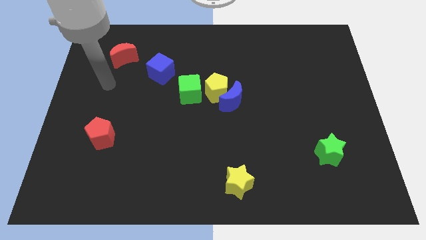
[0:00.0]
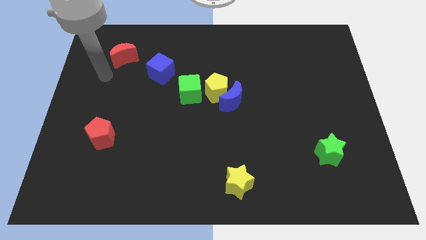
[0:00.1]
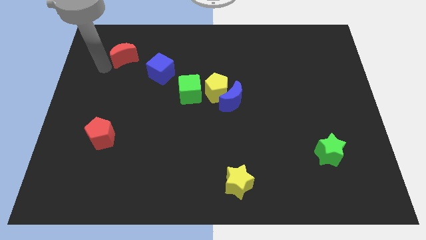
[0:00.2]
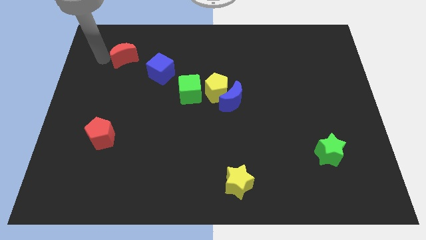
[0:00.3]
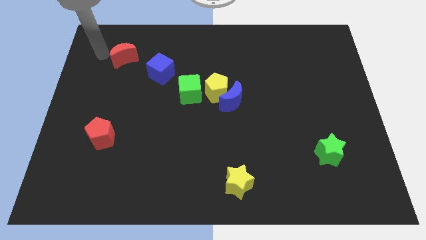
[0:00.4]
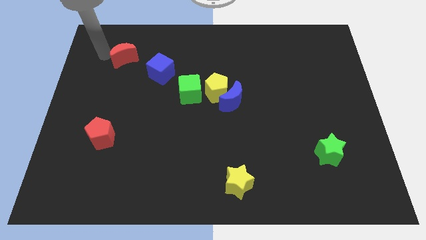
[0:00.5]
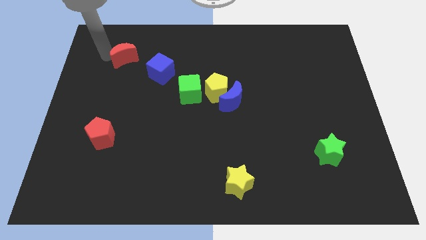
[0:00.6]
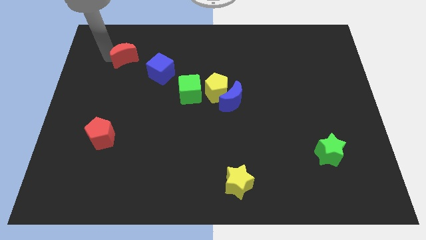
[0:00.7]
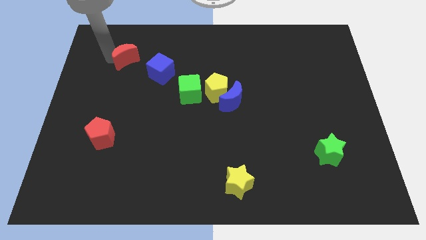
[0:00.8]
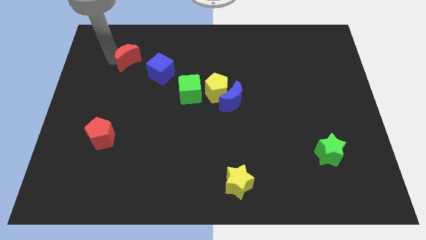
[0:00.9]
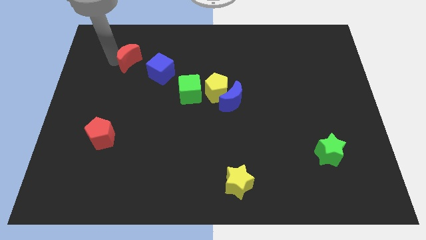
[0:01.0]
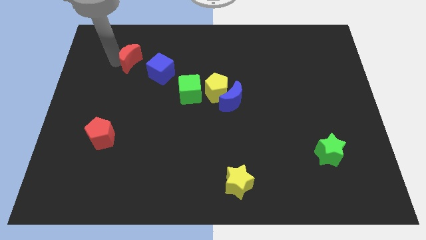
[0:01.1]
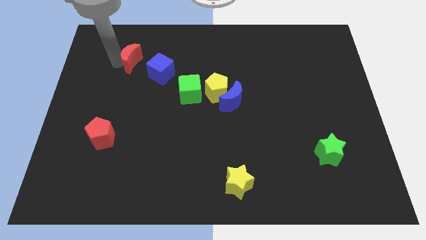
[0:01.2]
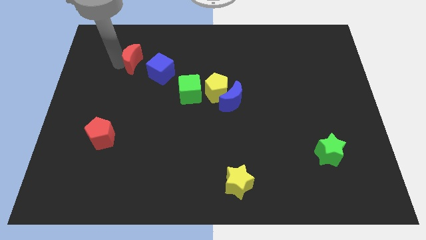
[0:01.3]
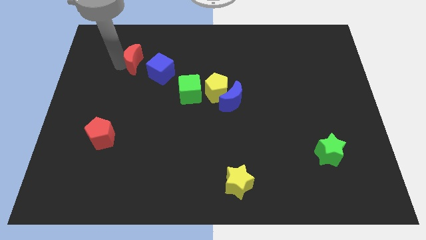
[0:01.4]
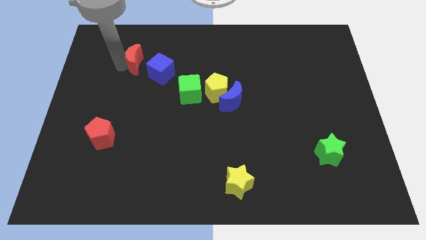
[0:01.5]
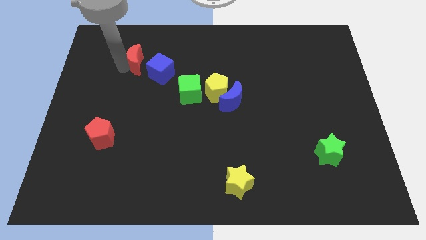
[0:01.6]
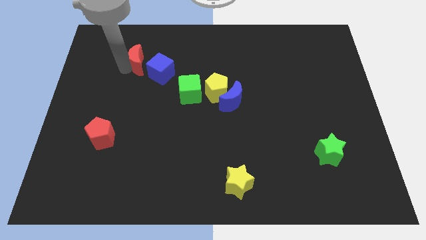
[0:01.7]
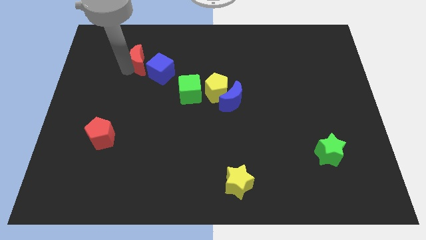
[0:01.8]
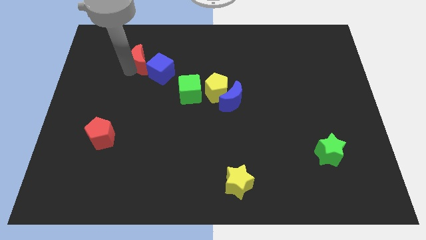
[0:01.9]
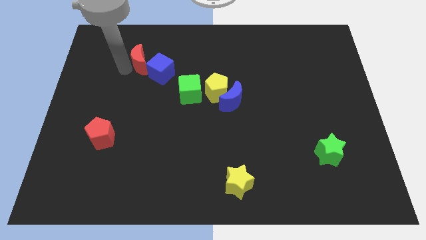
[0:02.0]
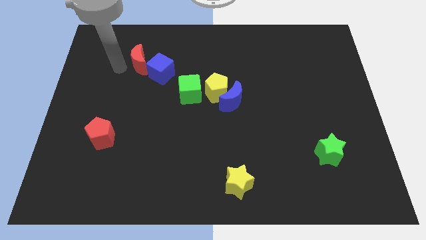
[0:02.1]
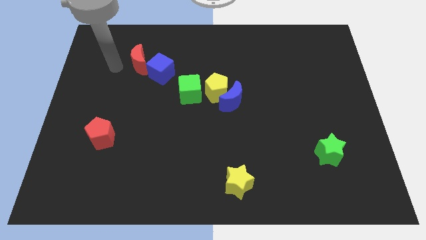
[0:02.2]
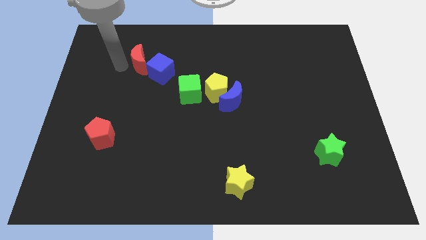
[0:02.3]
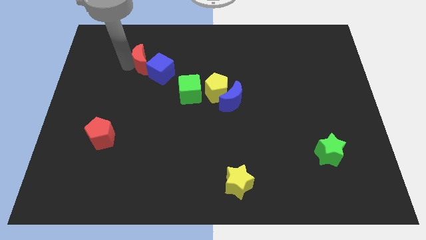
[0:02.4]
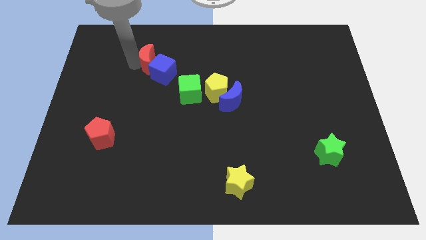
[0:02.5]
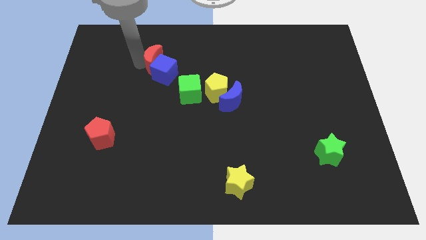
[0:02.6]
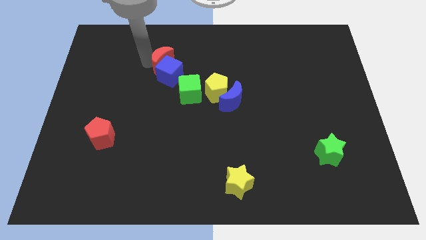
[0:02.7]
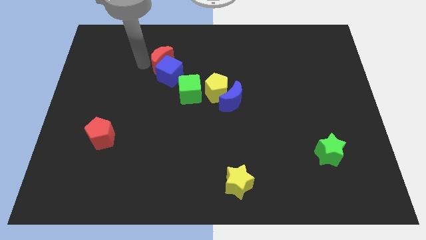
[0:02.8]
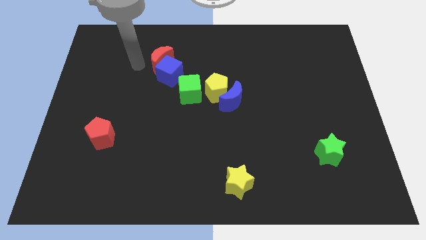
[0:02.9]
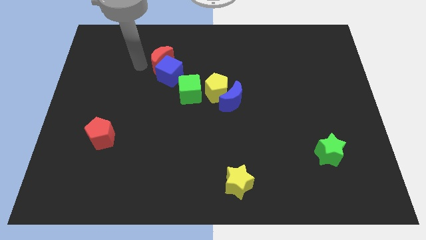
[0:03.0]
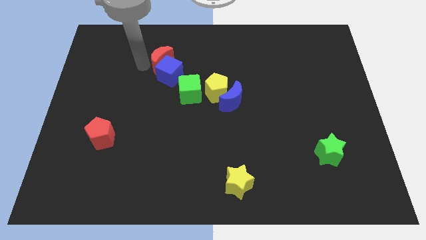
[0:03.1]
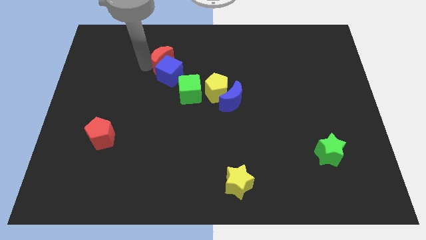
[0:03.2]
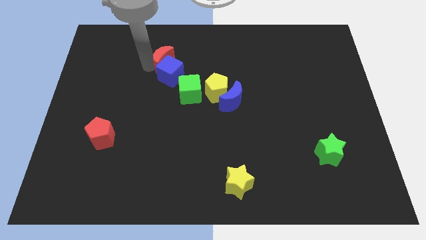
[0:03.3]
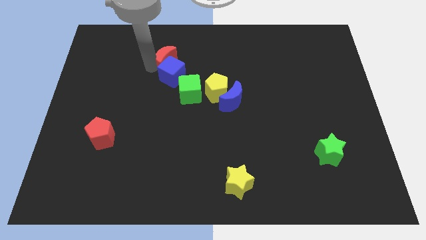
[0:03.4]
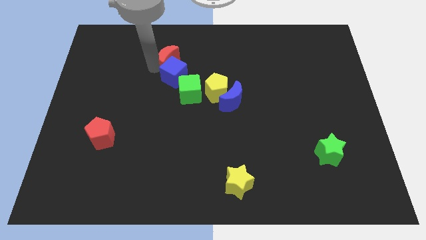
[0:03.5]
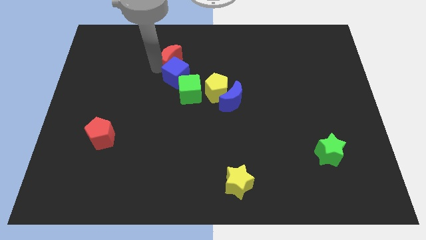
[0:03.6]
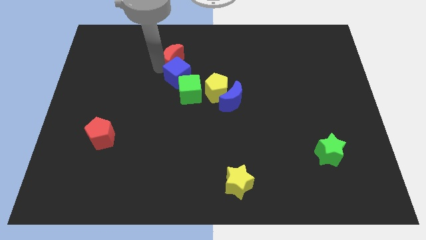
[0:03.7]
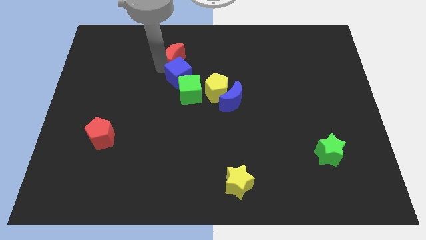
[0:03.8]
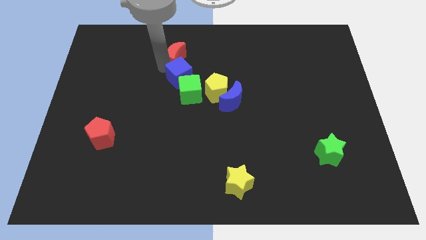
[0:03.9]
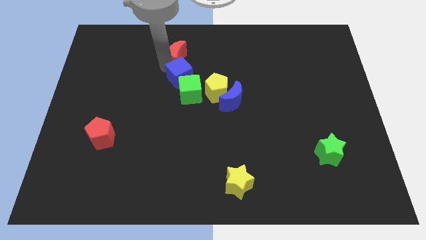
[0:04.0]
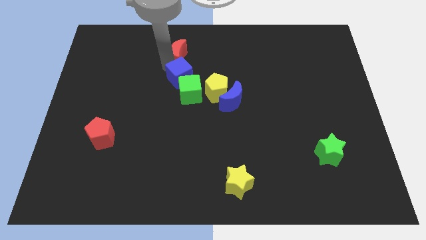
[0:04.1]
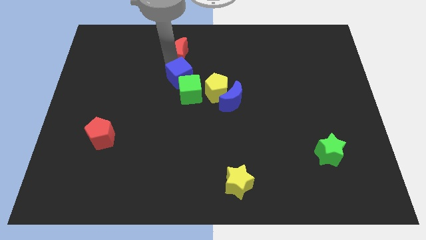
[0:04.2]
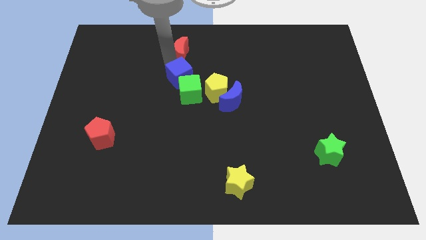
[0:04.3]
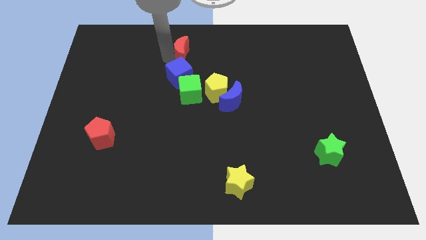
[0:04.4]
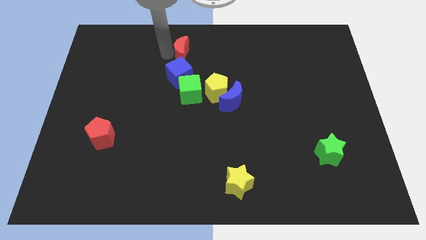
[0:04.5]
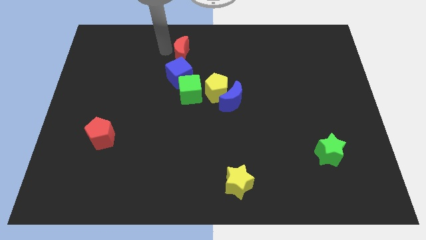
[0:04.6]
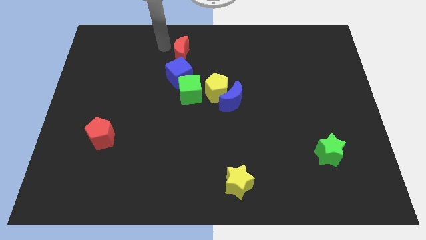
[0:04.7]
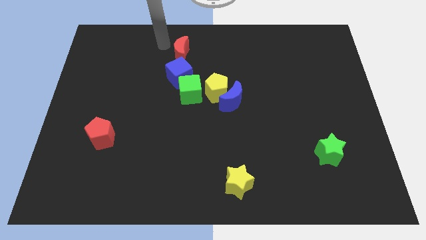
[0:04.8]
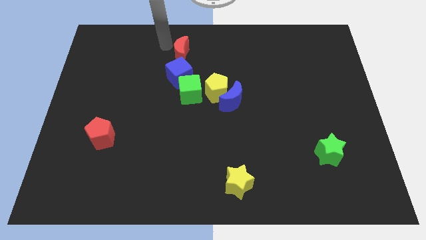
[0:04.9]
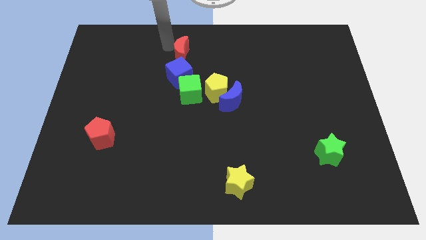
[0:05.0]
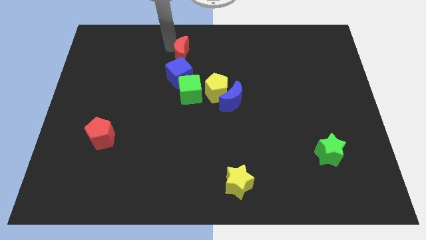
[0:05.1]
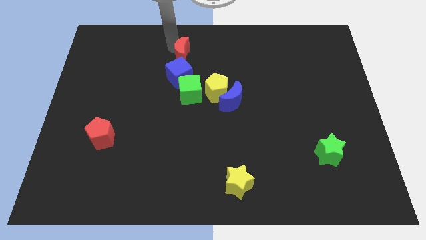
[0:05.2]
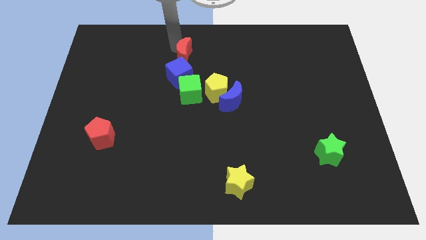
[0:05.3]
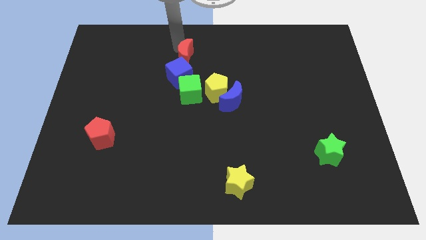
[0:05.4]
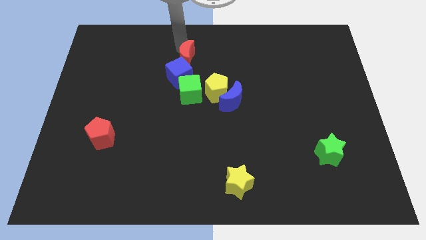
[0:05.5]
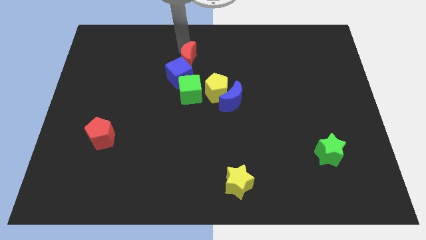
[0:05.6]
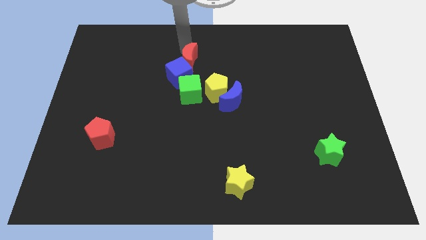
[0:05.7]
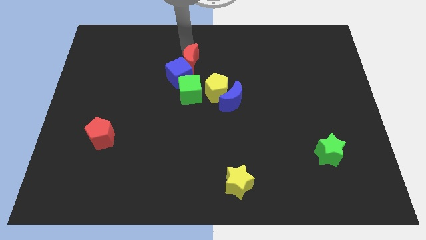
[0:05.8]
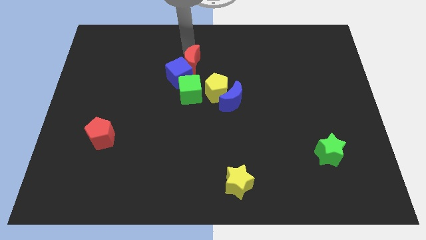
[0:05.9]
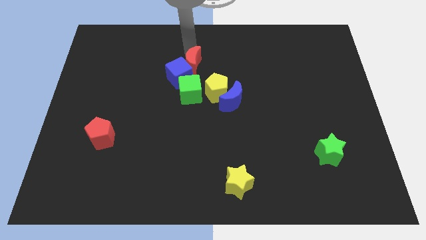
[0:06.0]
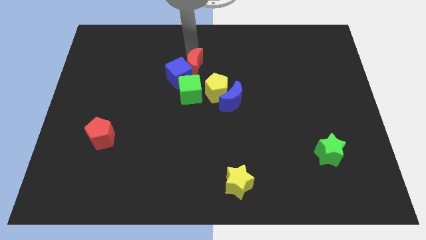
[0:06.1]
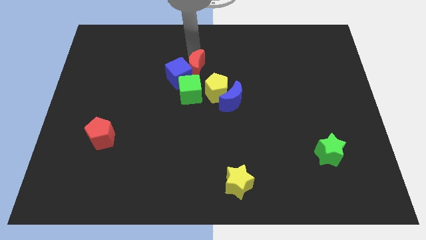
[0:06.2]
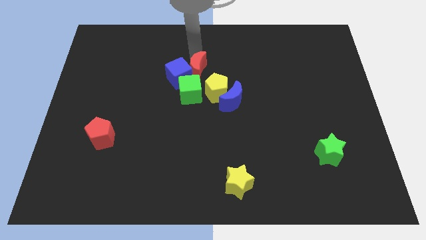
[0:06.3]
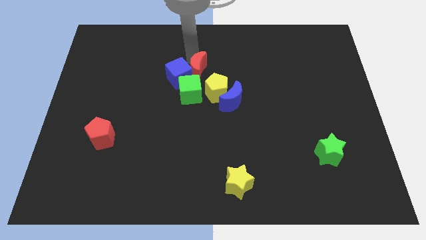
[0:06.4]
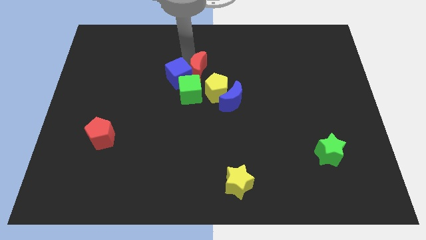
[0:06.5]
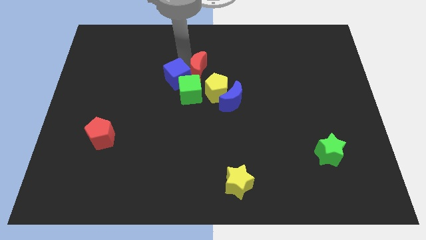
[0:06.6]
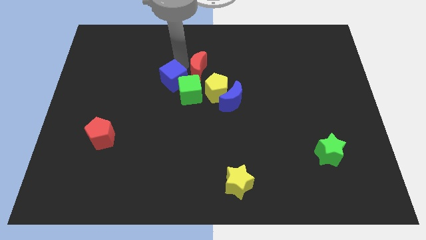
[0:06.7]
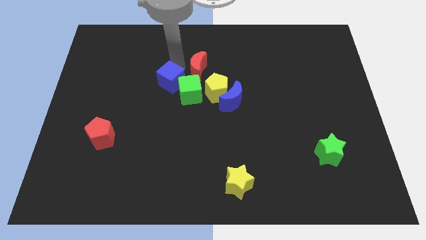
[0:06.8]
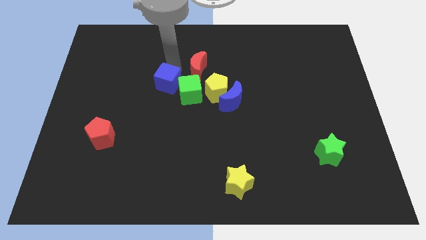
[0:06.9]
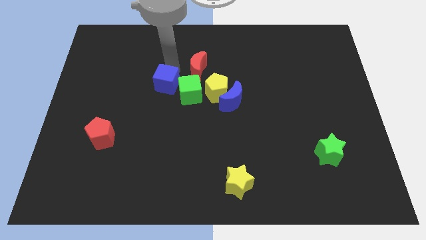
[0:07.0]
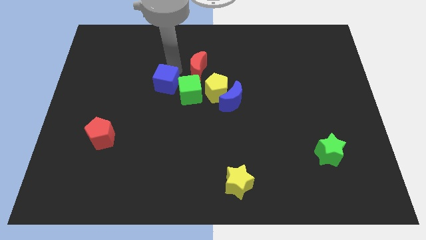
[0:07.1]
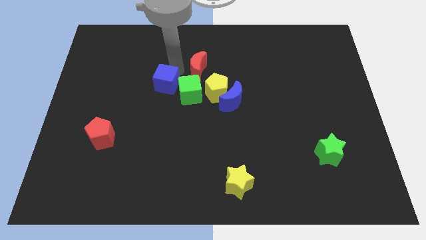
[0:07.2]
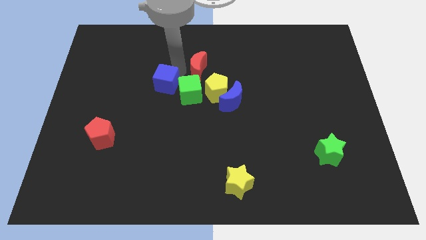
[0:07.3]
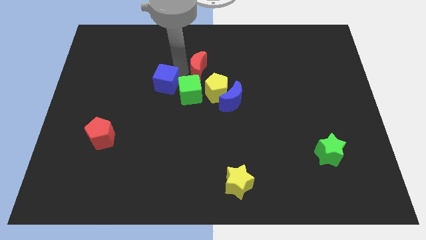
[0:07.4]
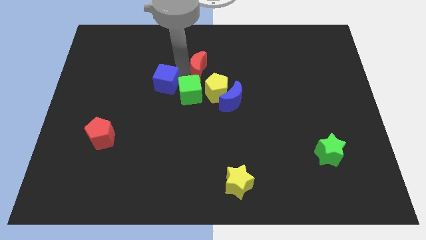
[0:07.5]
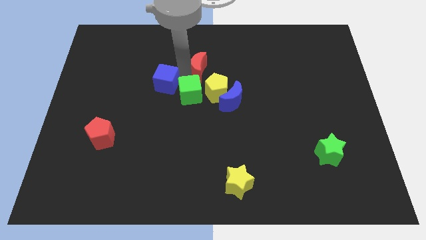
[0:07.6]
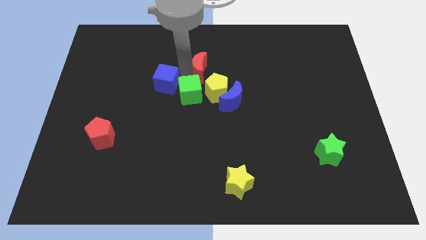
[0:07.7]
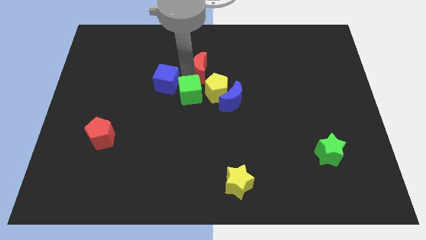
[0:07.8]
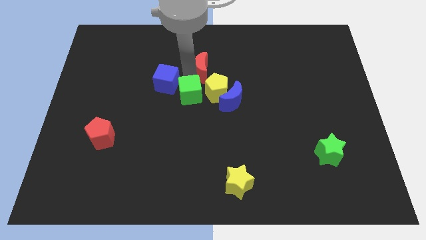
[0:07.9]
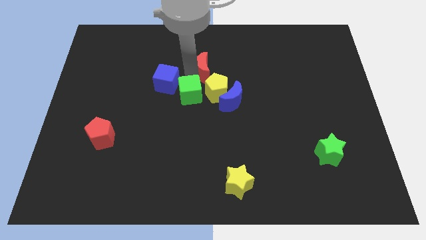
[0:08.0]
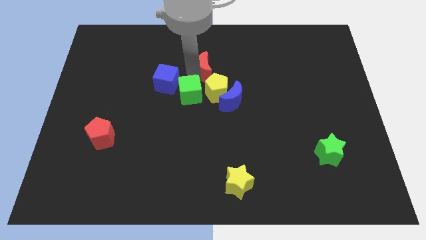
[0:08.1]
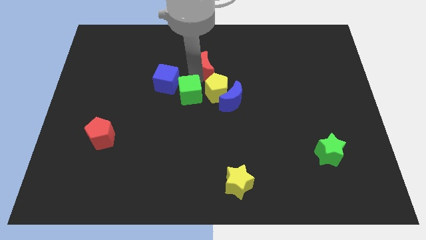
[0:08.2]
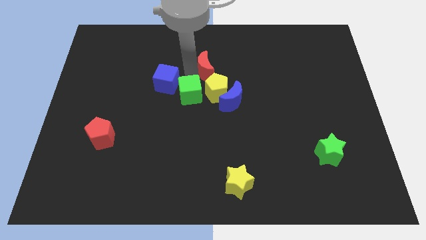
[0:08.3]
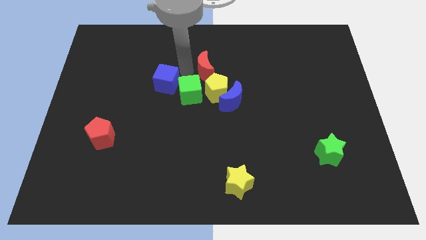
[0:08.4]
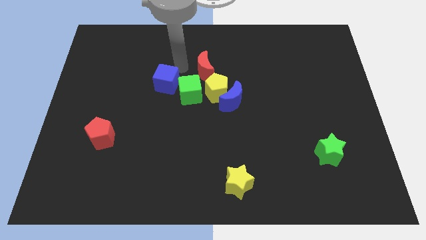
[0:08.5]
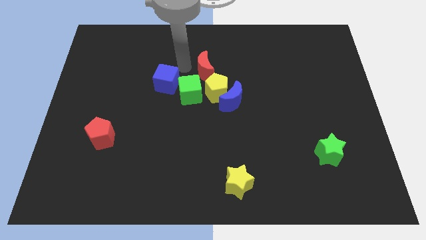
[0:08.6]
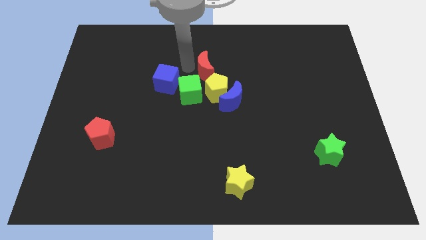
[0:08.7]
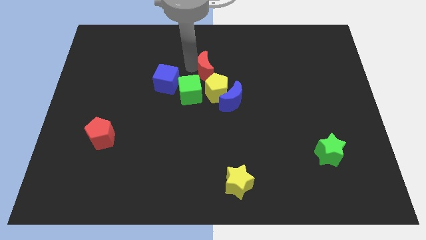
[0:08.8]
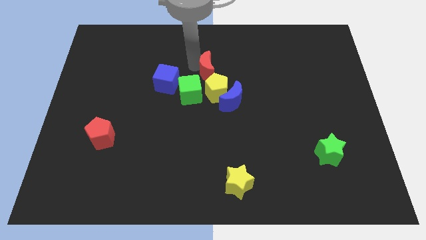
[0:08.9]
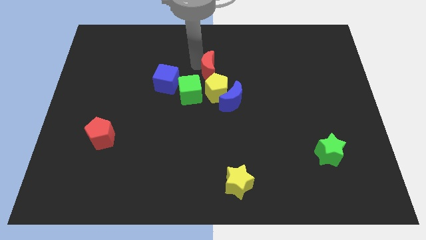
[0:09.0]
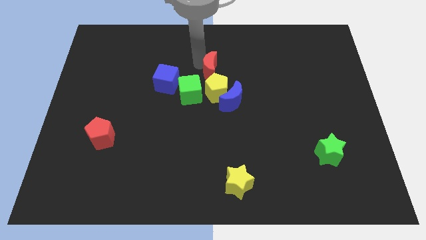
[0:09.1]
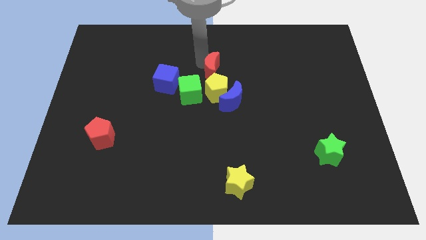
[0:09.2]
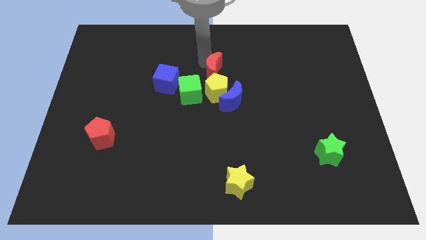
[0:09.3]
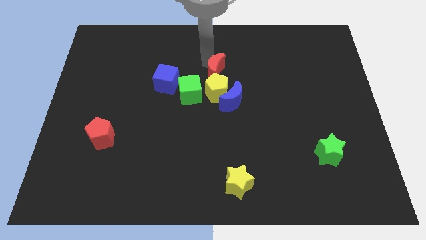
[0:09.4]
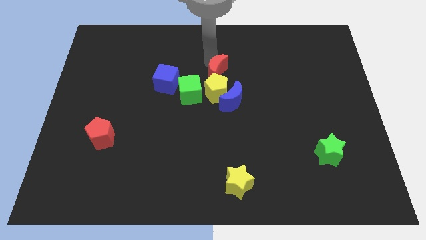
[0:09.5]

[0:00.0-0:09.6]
put the red moon to the top right of the yellow pentagon
